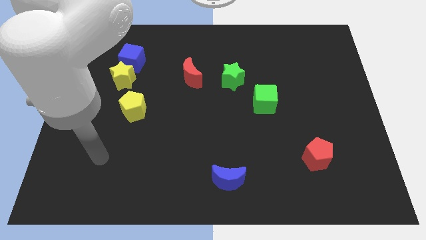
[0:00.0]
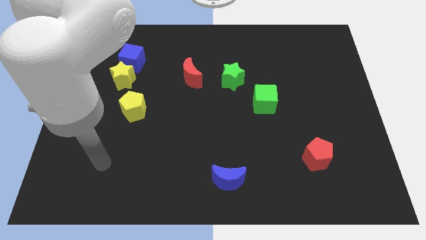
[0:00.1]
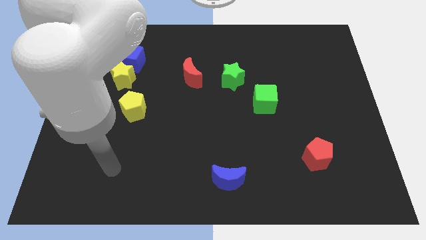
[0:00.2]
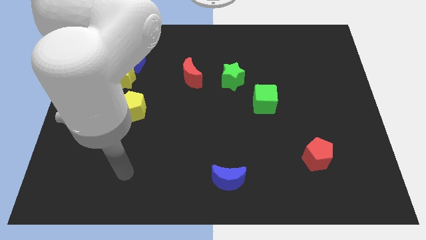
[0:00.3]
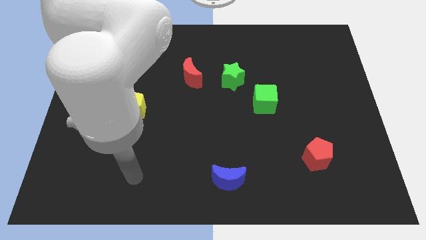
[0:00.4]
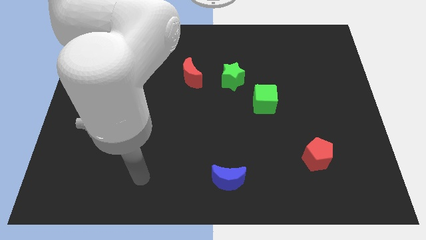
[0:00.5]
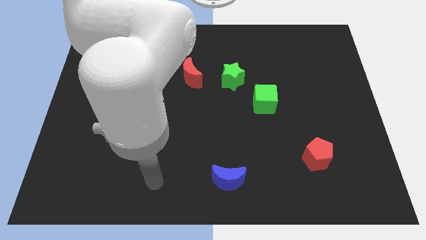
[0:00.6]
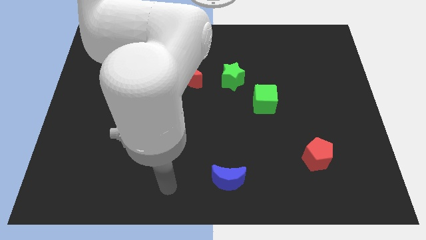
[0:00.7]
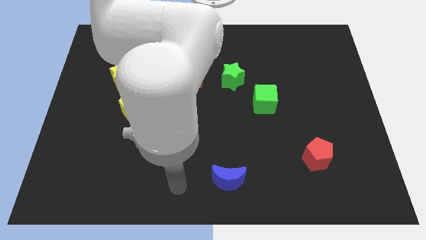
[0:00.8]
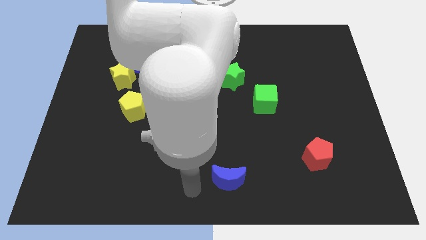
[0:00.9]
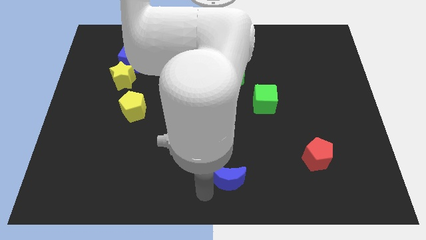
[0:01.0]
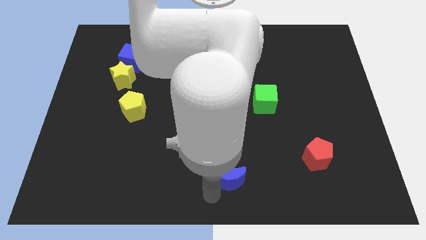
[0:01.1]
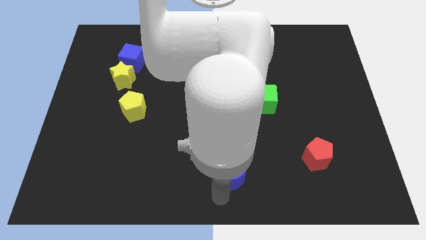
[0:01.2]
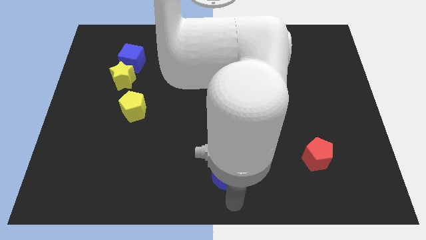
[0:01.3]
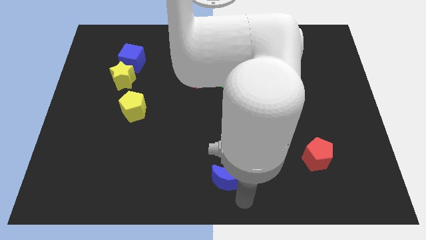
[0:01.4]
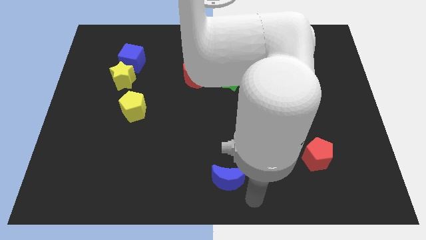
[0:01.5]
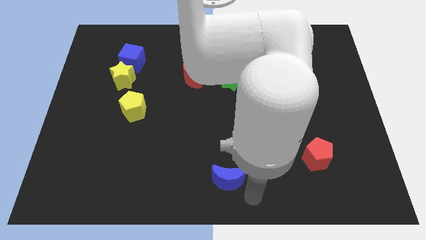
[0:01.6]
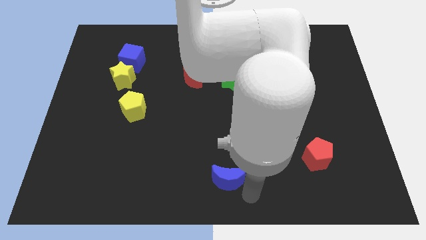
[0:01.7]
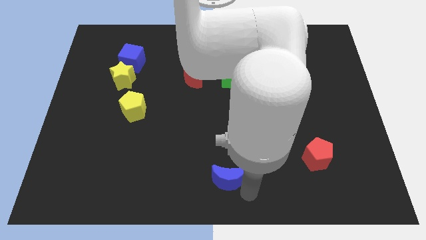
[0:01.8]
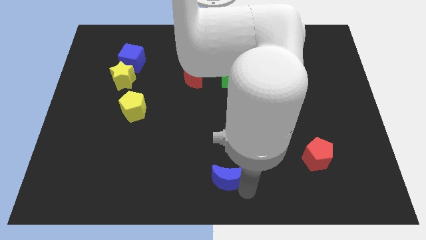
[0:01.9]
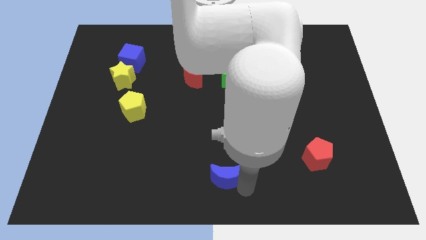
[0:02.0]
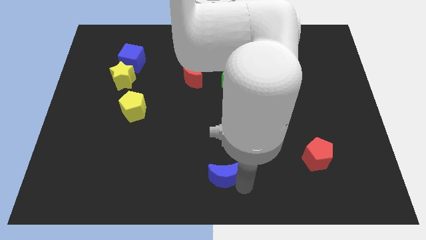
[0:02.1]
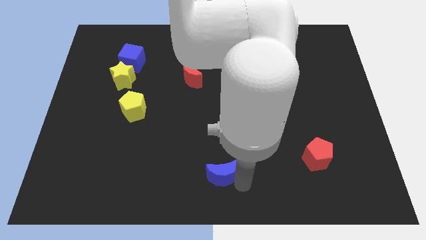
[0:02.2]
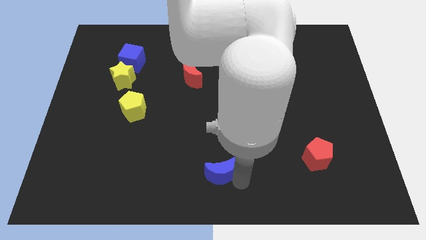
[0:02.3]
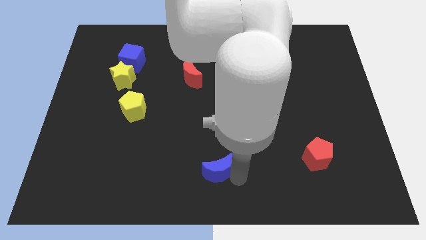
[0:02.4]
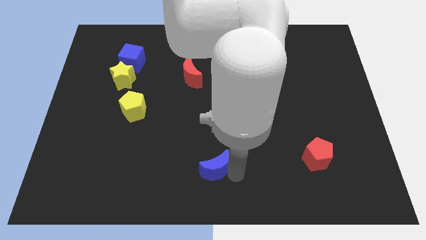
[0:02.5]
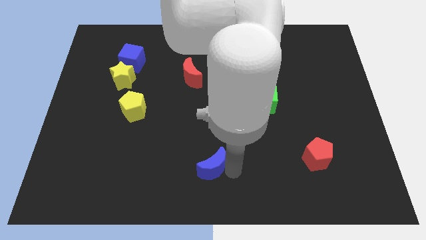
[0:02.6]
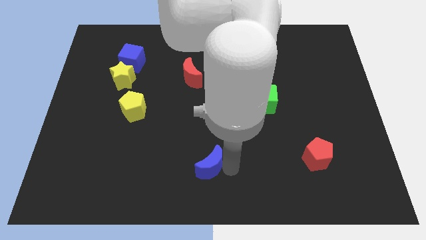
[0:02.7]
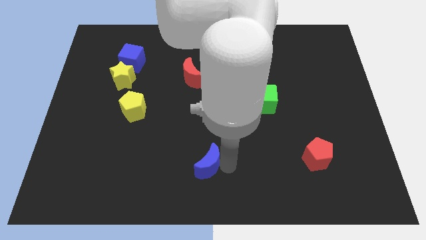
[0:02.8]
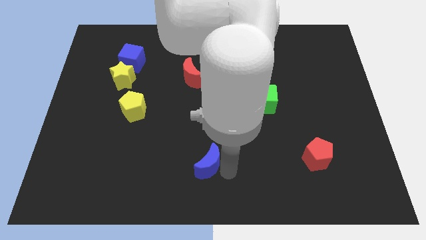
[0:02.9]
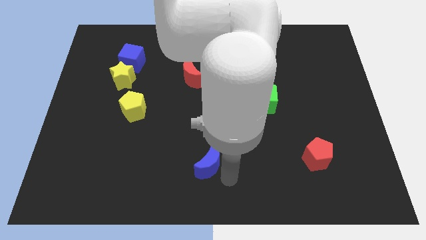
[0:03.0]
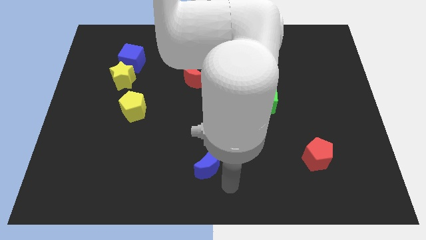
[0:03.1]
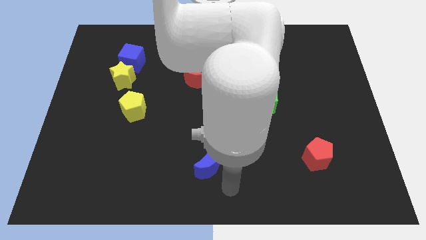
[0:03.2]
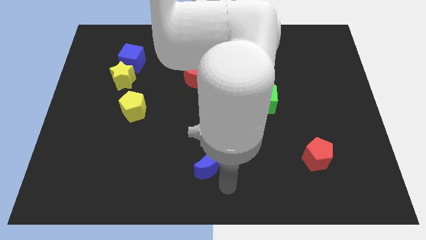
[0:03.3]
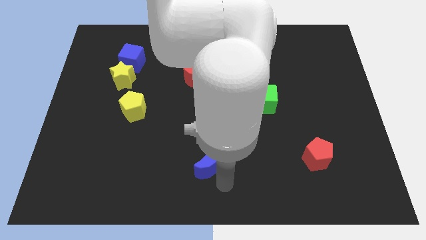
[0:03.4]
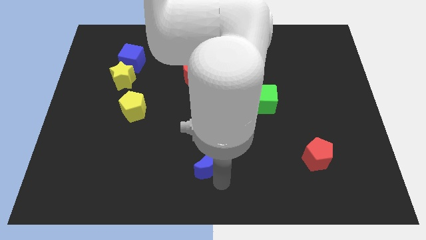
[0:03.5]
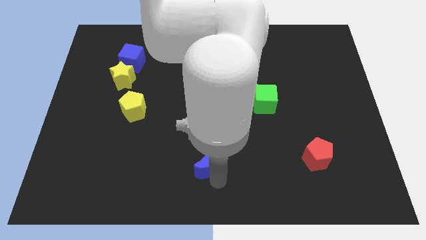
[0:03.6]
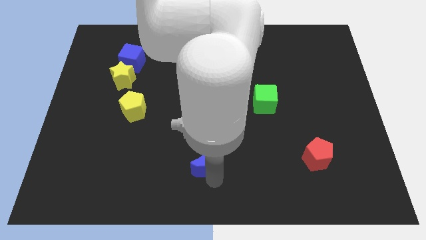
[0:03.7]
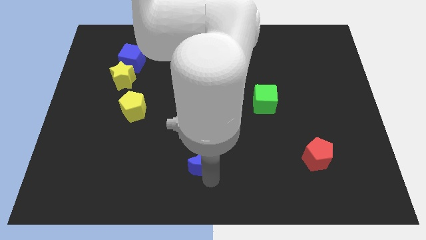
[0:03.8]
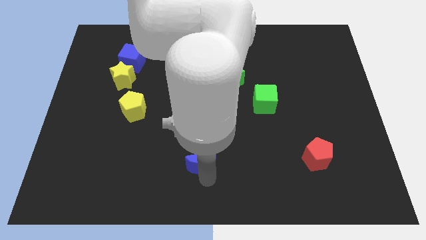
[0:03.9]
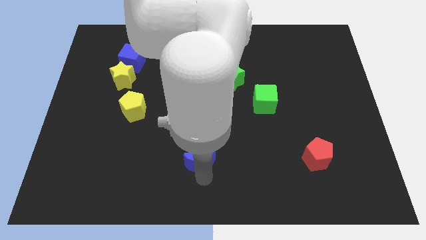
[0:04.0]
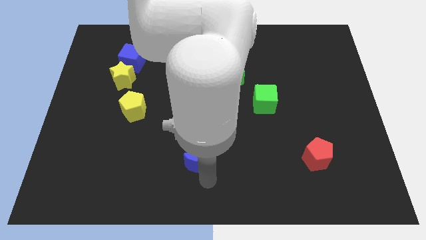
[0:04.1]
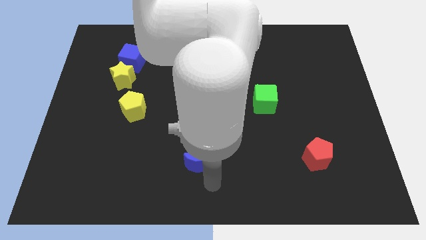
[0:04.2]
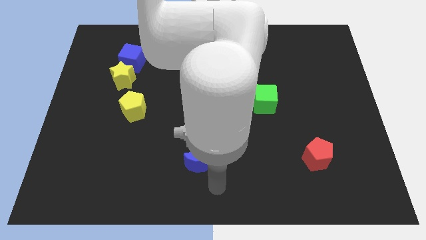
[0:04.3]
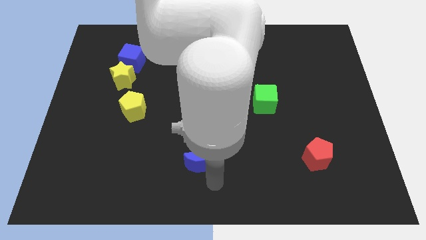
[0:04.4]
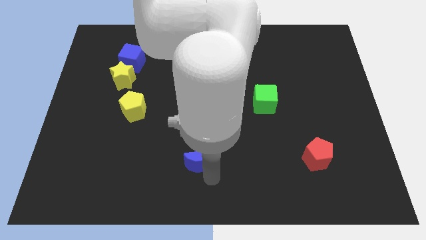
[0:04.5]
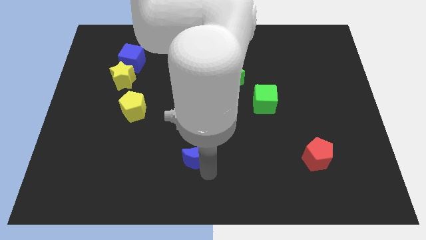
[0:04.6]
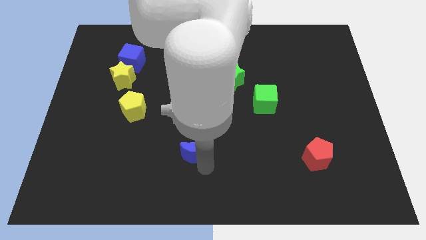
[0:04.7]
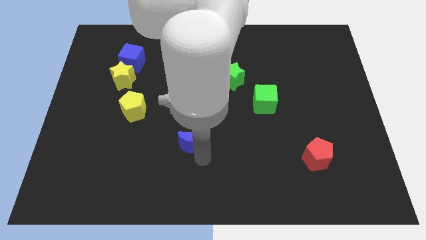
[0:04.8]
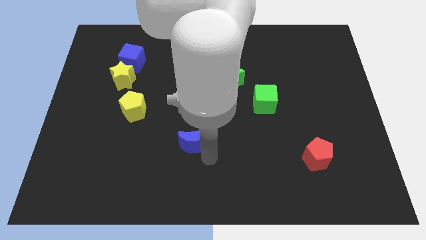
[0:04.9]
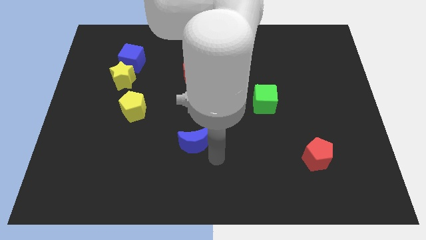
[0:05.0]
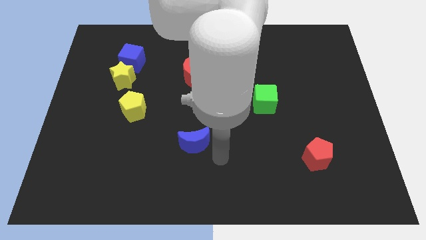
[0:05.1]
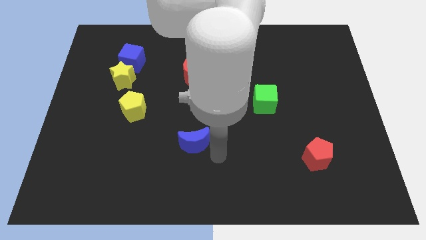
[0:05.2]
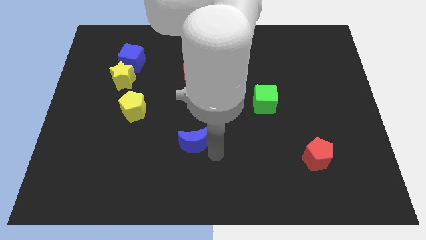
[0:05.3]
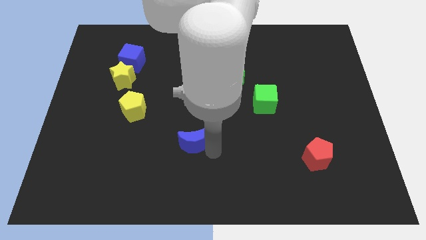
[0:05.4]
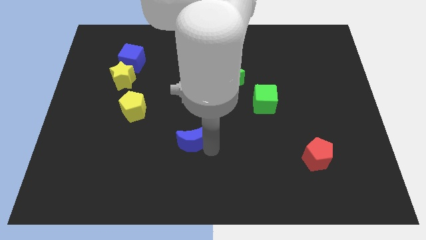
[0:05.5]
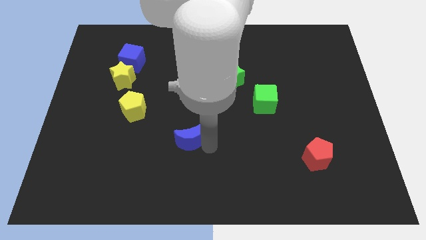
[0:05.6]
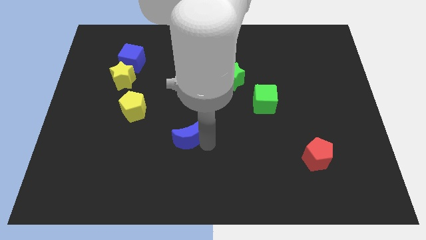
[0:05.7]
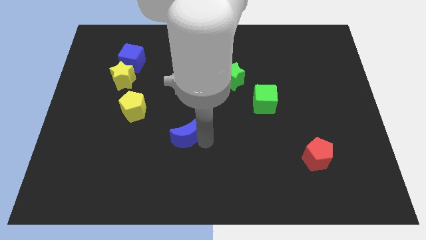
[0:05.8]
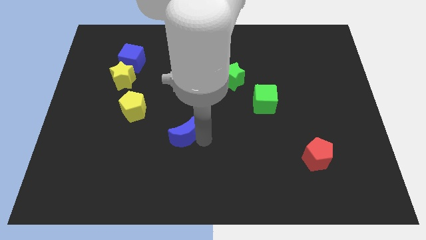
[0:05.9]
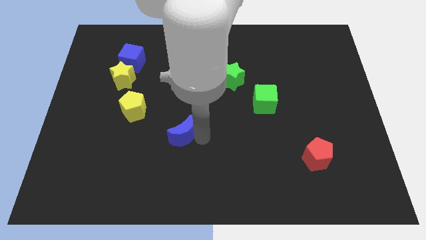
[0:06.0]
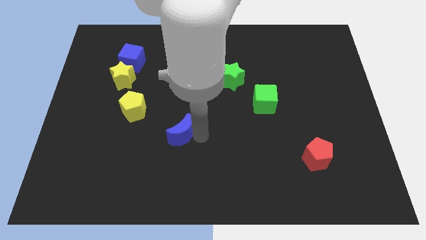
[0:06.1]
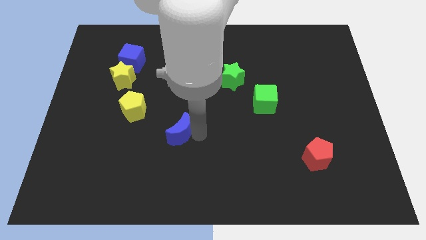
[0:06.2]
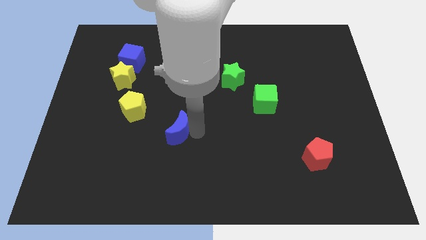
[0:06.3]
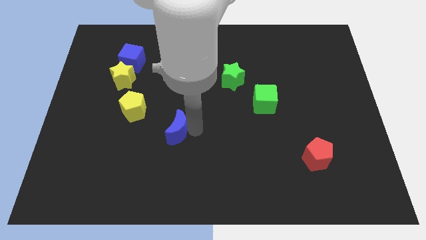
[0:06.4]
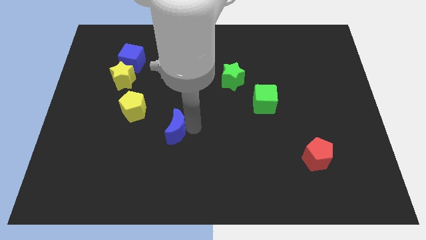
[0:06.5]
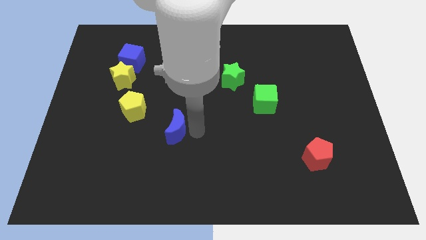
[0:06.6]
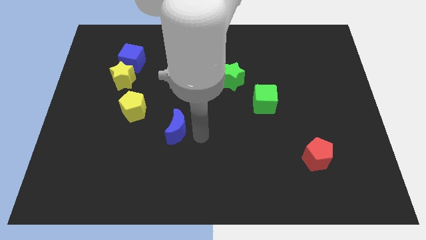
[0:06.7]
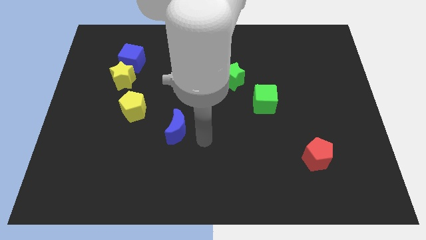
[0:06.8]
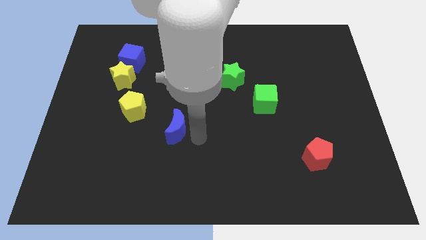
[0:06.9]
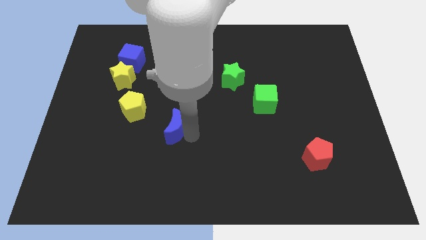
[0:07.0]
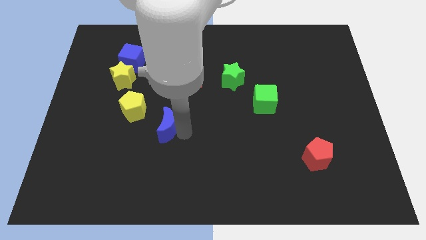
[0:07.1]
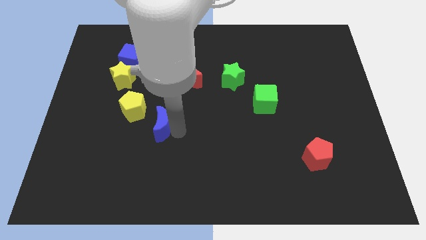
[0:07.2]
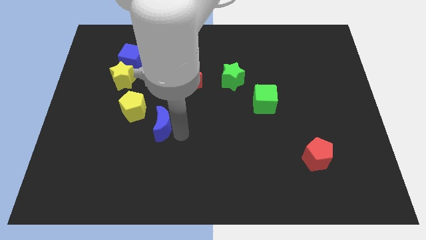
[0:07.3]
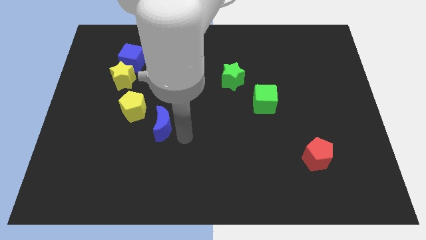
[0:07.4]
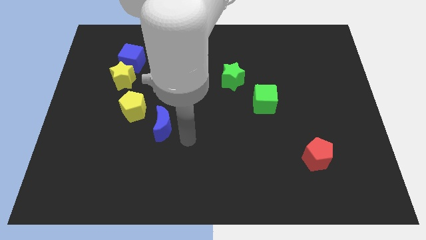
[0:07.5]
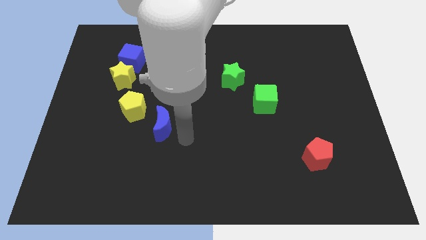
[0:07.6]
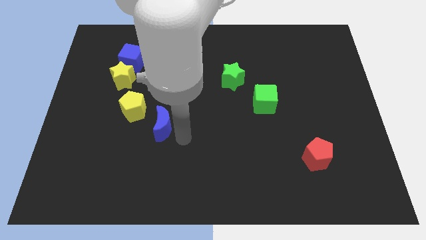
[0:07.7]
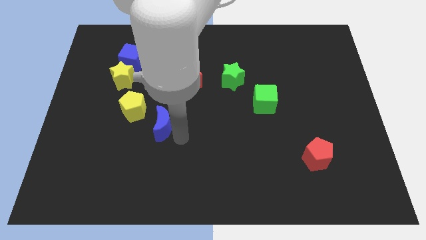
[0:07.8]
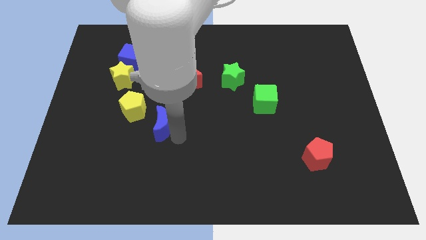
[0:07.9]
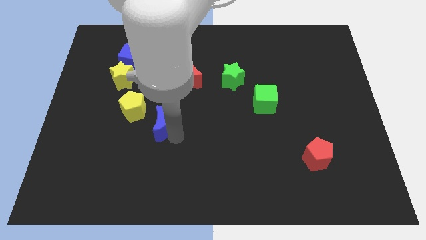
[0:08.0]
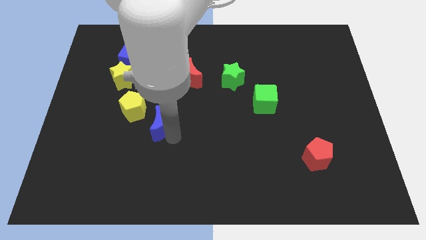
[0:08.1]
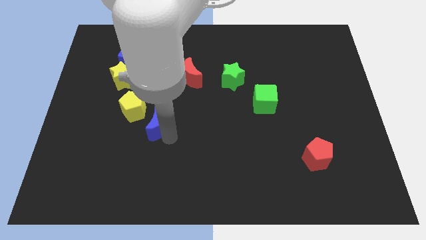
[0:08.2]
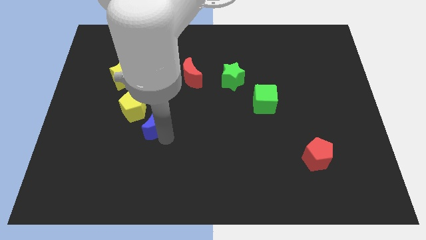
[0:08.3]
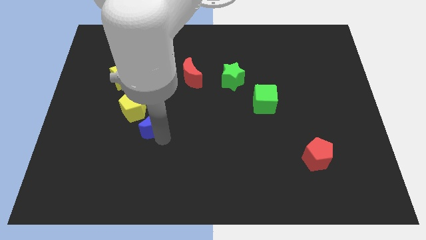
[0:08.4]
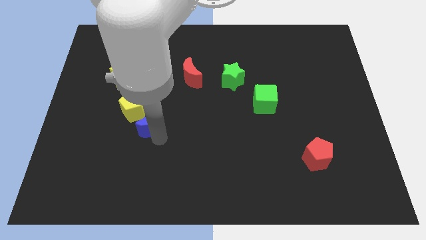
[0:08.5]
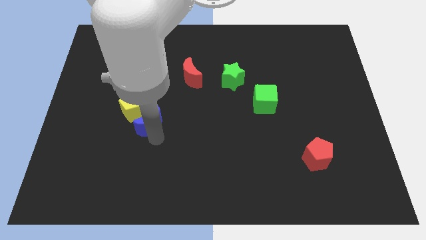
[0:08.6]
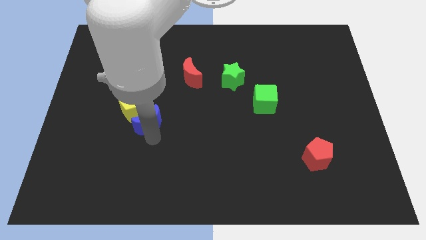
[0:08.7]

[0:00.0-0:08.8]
move the blue moon close to the yellow pentagon
